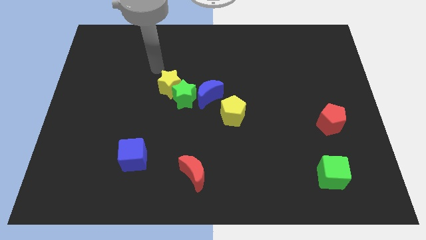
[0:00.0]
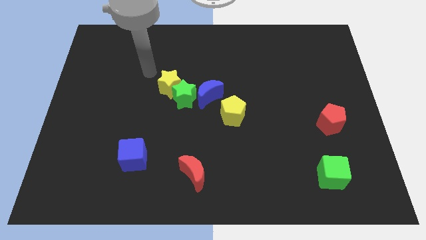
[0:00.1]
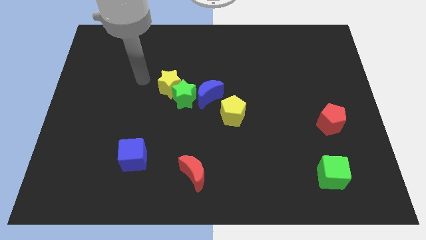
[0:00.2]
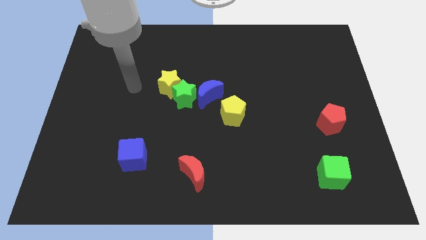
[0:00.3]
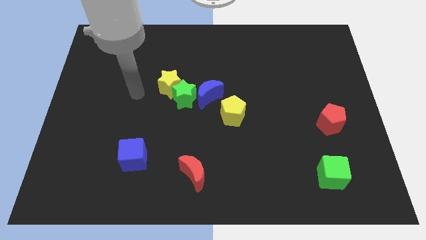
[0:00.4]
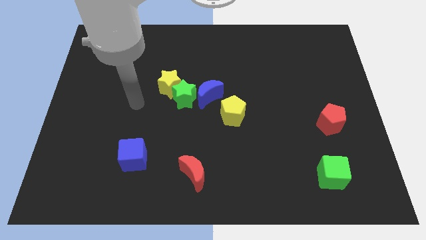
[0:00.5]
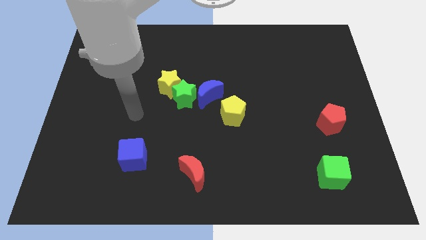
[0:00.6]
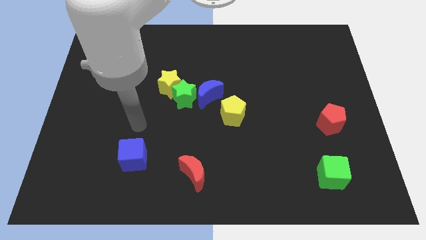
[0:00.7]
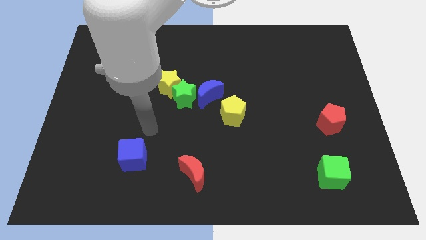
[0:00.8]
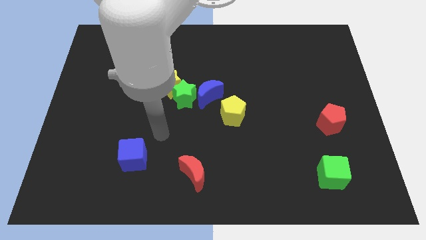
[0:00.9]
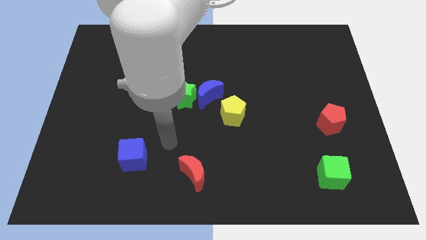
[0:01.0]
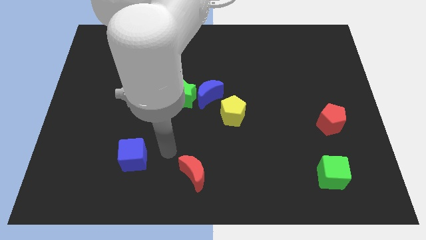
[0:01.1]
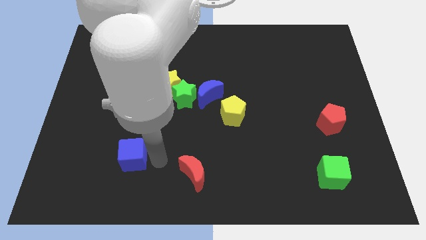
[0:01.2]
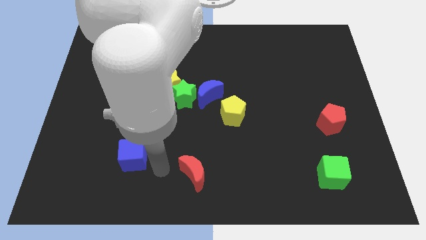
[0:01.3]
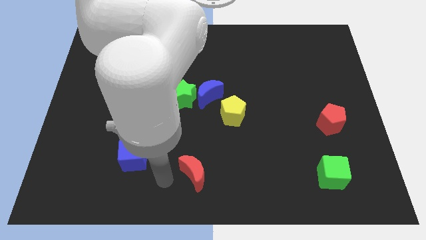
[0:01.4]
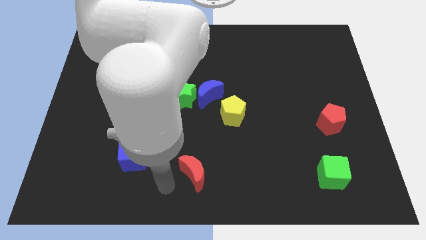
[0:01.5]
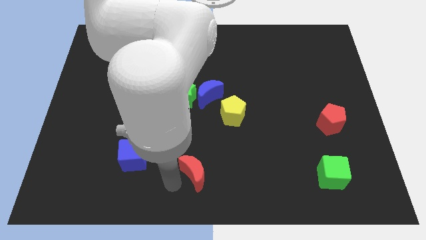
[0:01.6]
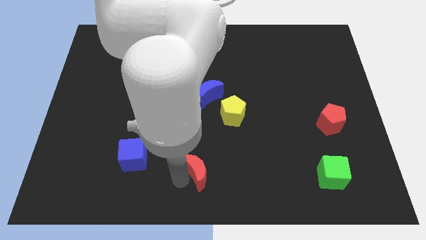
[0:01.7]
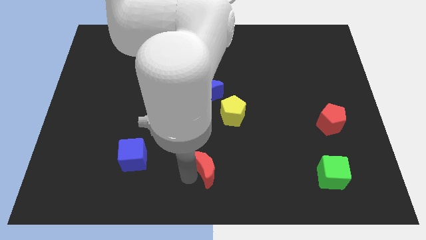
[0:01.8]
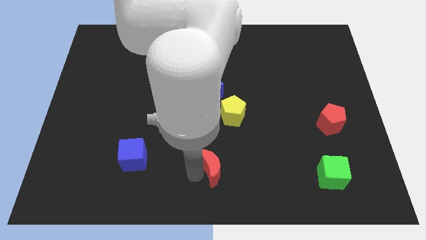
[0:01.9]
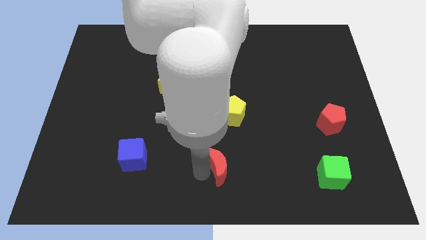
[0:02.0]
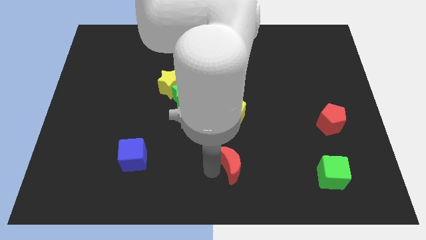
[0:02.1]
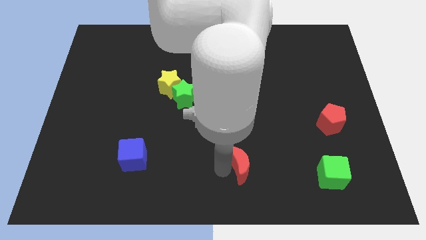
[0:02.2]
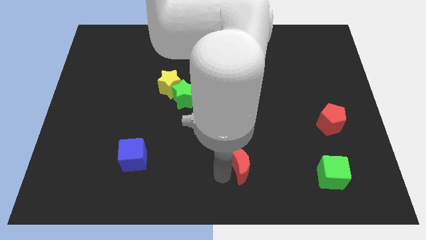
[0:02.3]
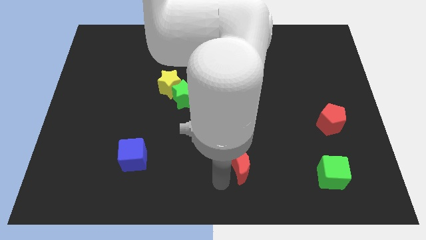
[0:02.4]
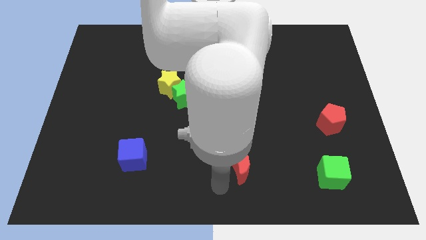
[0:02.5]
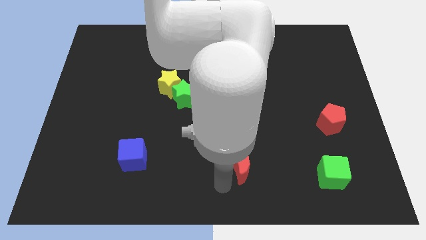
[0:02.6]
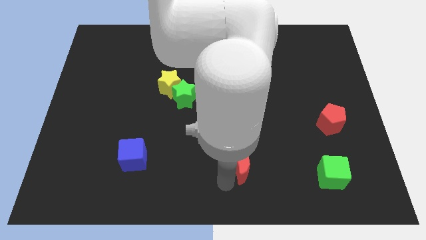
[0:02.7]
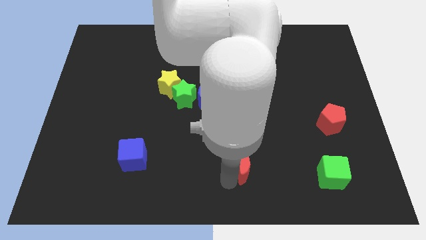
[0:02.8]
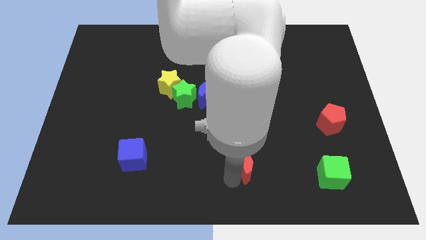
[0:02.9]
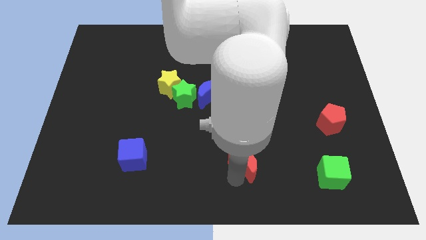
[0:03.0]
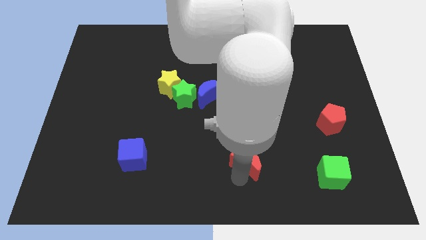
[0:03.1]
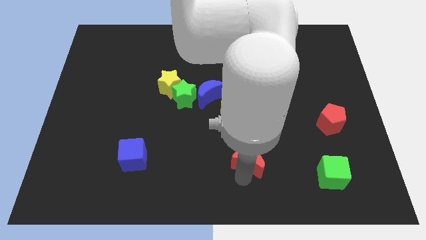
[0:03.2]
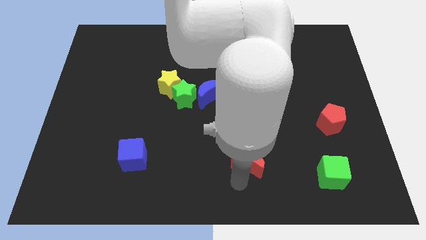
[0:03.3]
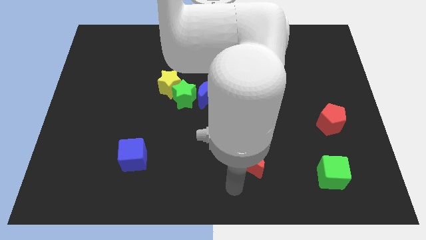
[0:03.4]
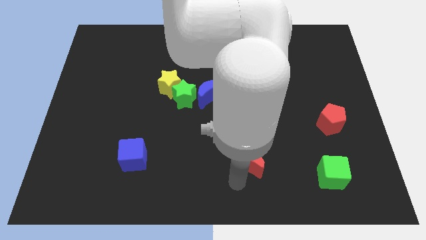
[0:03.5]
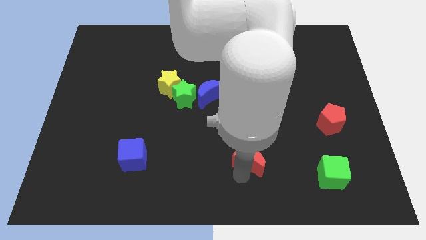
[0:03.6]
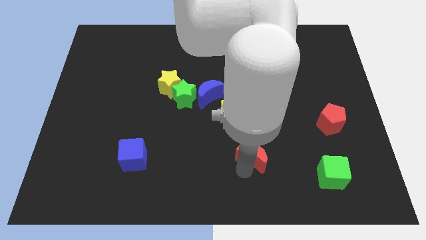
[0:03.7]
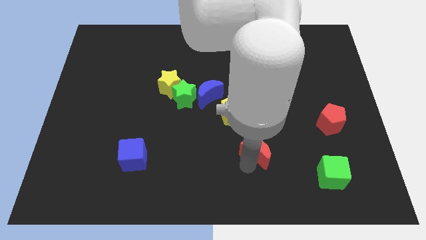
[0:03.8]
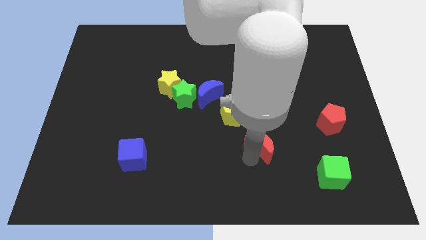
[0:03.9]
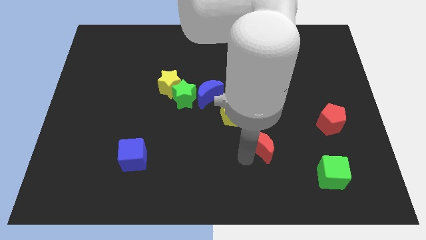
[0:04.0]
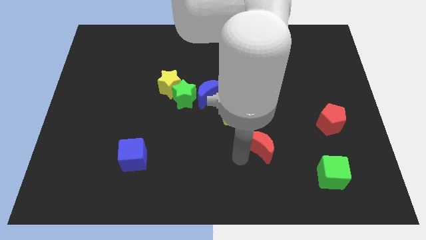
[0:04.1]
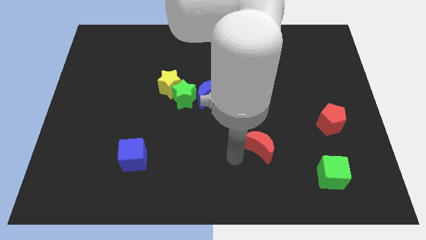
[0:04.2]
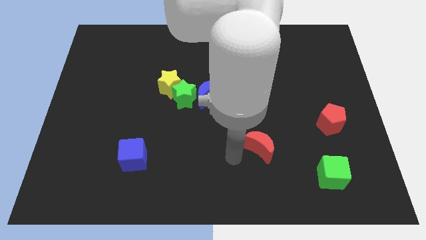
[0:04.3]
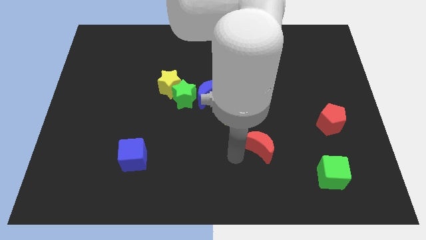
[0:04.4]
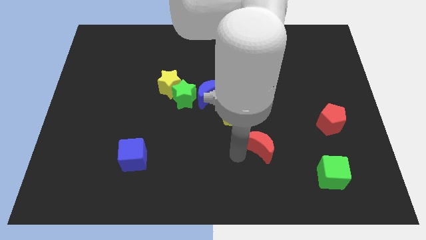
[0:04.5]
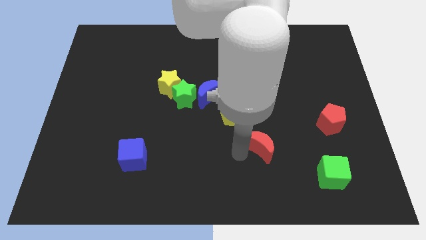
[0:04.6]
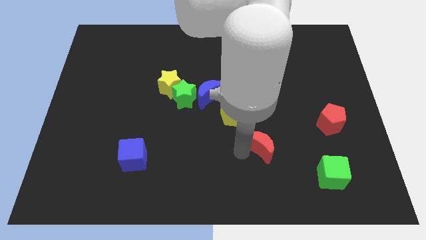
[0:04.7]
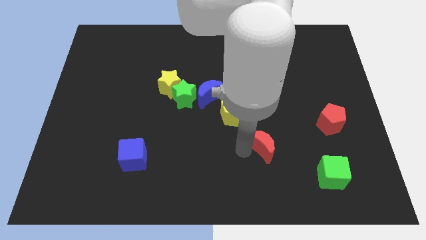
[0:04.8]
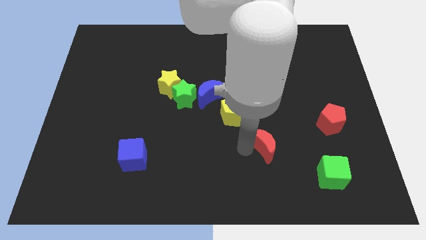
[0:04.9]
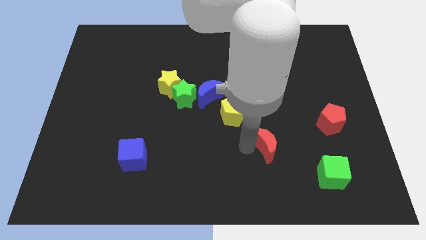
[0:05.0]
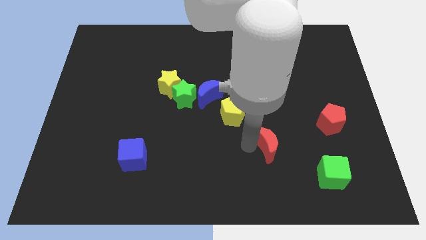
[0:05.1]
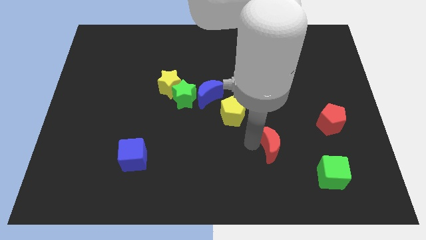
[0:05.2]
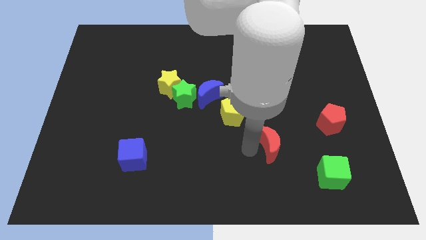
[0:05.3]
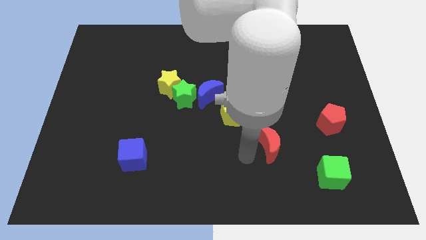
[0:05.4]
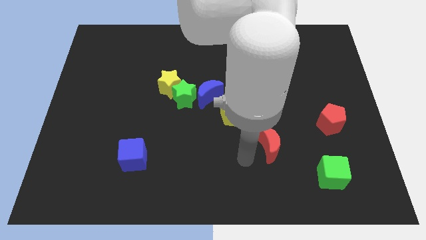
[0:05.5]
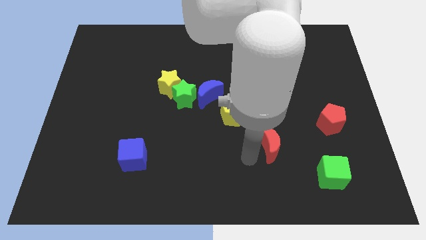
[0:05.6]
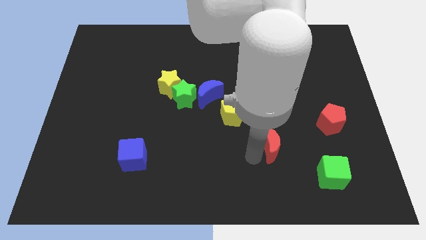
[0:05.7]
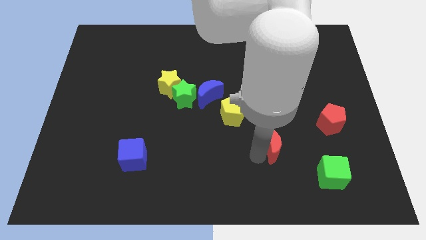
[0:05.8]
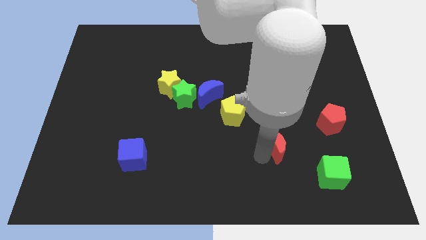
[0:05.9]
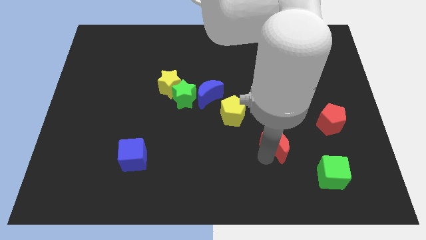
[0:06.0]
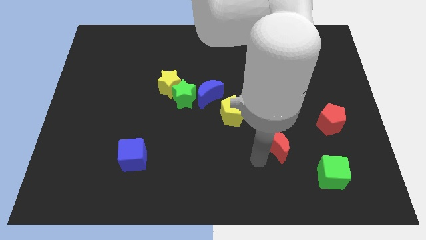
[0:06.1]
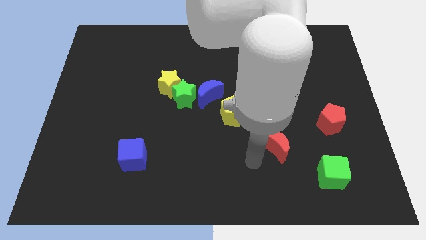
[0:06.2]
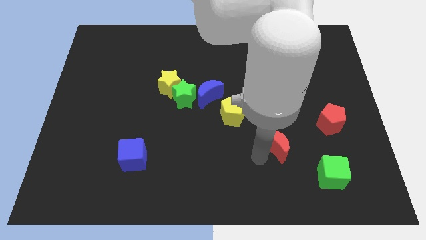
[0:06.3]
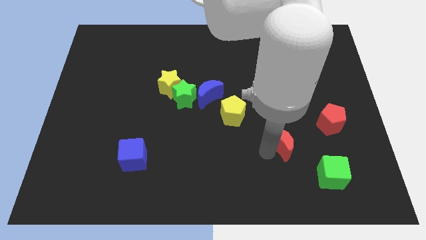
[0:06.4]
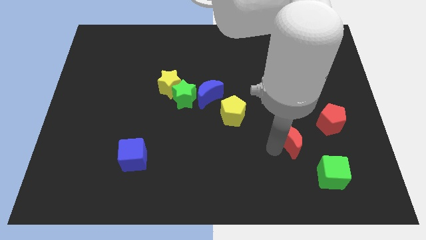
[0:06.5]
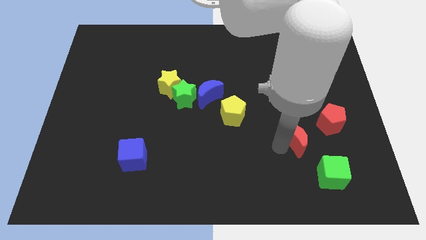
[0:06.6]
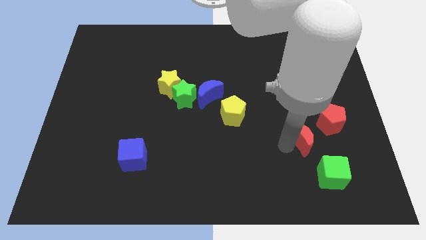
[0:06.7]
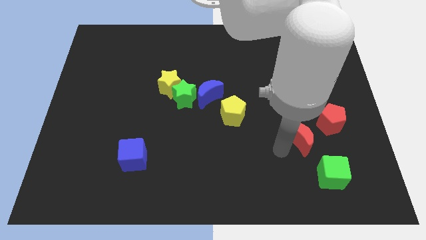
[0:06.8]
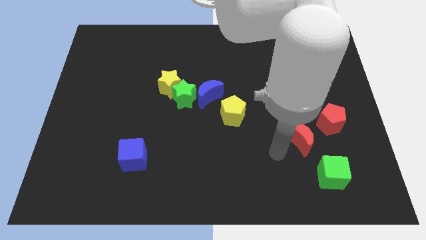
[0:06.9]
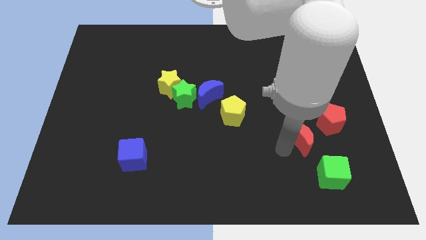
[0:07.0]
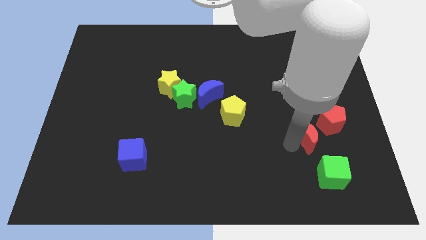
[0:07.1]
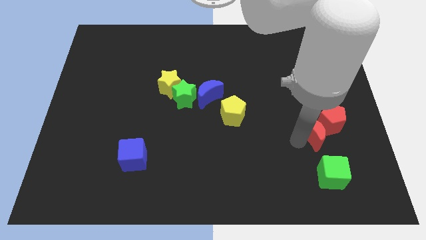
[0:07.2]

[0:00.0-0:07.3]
slide the red moon towards the red pentagon
